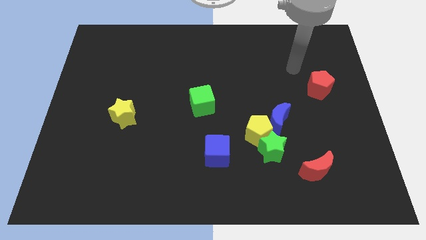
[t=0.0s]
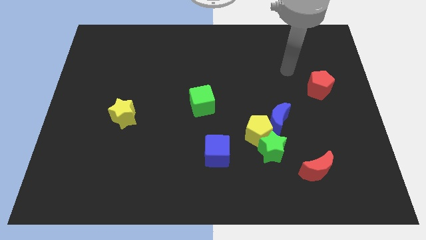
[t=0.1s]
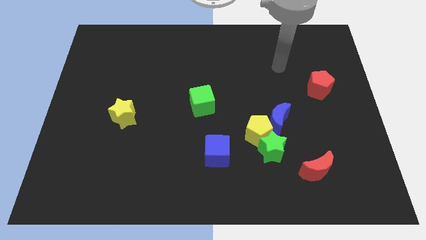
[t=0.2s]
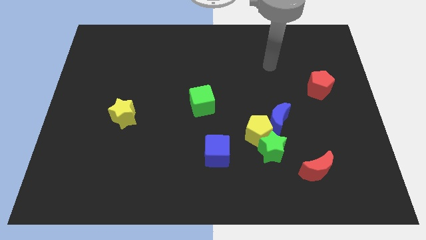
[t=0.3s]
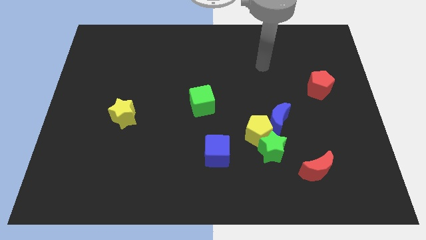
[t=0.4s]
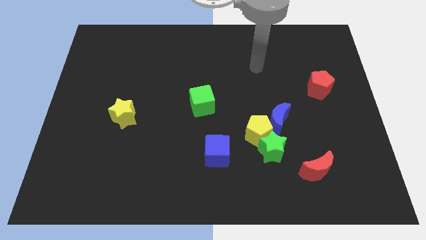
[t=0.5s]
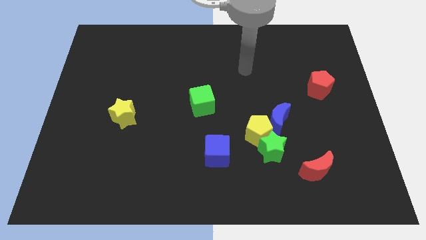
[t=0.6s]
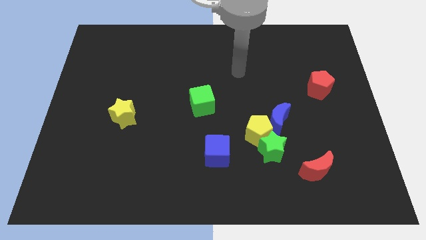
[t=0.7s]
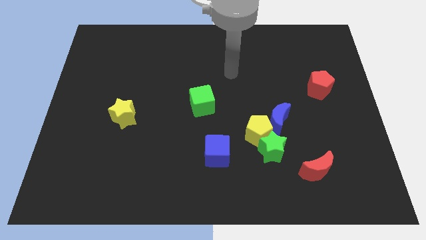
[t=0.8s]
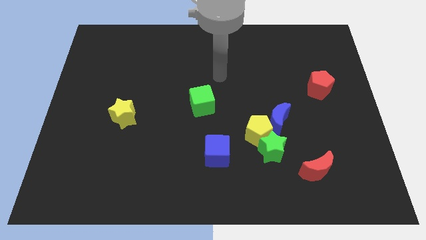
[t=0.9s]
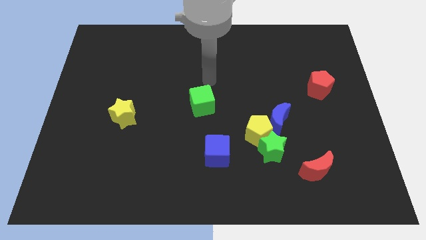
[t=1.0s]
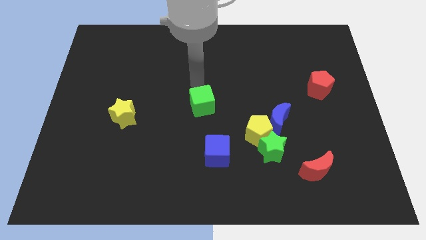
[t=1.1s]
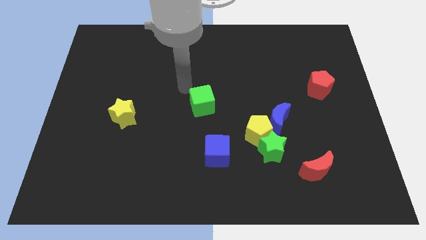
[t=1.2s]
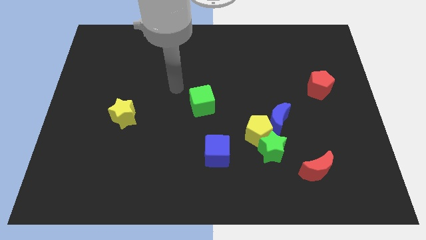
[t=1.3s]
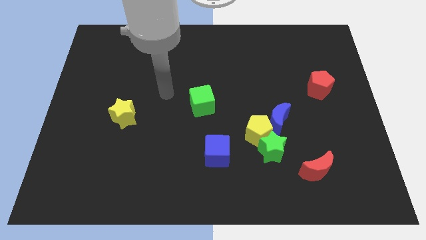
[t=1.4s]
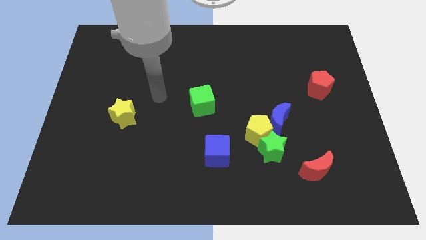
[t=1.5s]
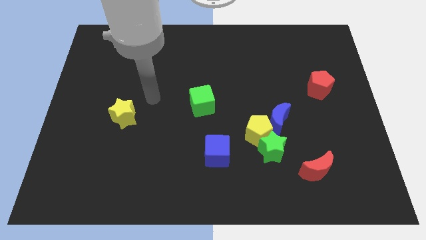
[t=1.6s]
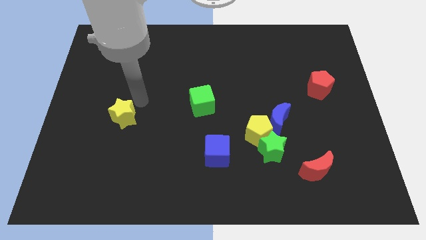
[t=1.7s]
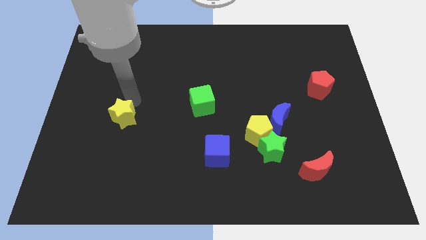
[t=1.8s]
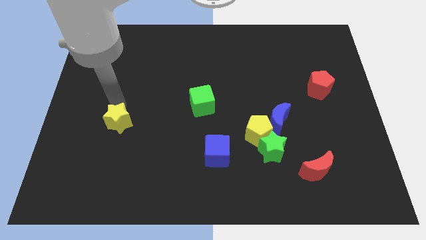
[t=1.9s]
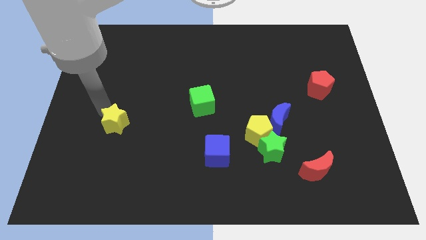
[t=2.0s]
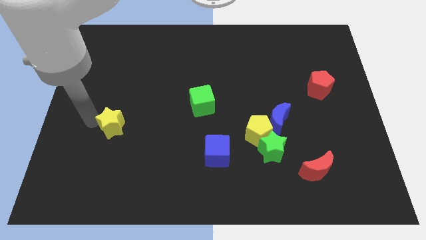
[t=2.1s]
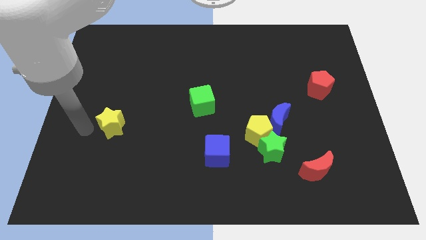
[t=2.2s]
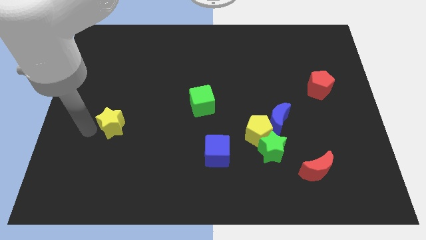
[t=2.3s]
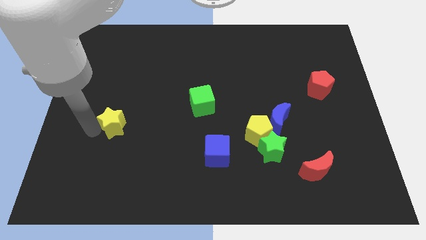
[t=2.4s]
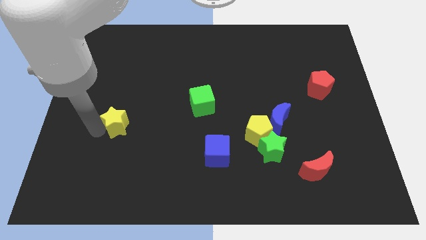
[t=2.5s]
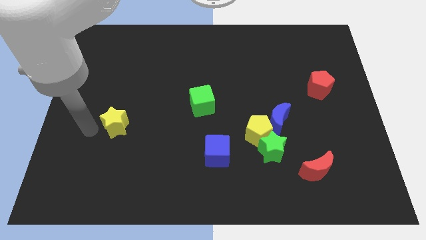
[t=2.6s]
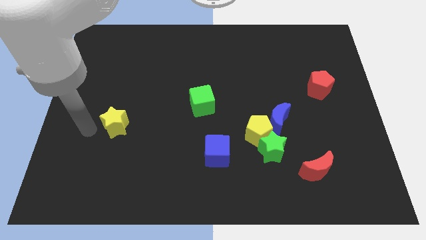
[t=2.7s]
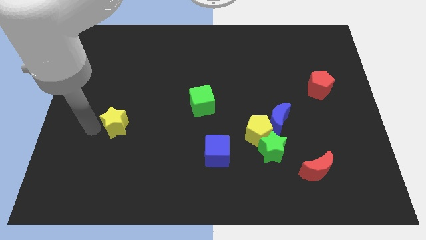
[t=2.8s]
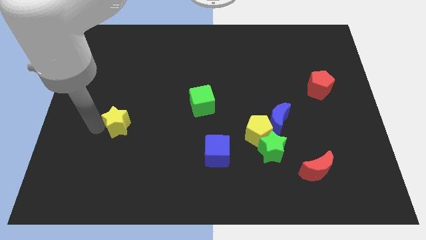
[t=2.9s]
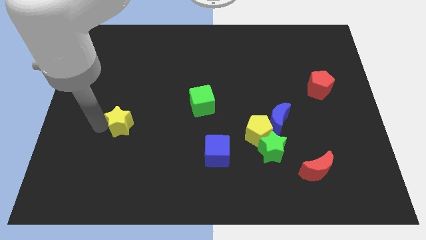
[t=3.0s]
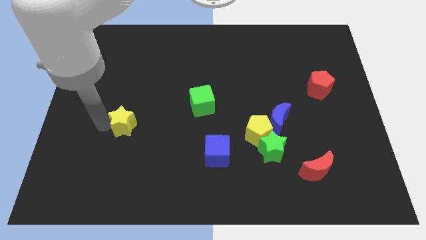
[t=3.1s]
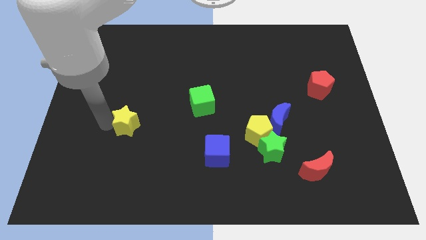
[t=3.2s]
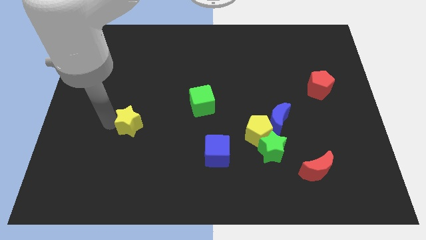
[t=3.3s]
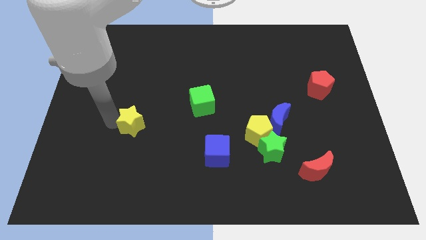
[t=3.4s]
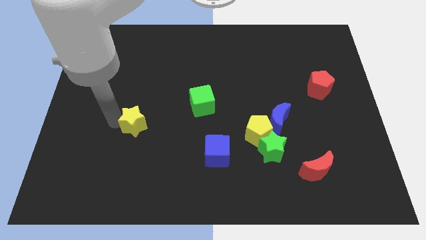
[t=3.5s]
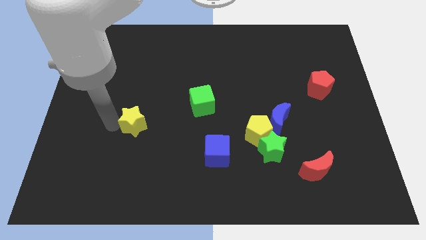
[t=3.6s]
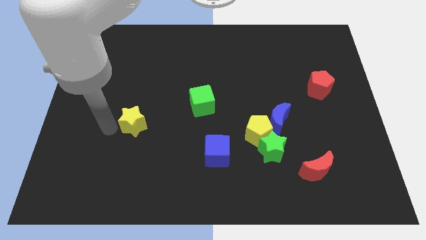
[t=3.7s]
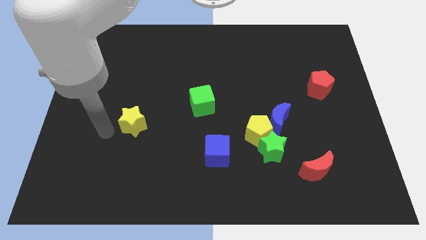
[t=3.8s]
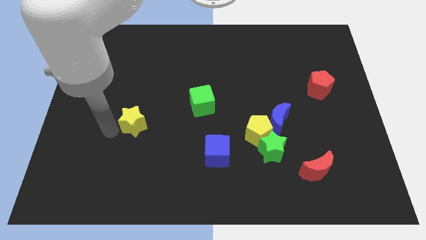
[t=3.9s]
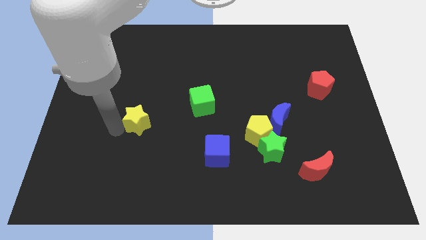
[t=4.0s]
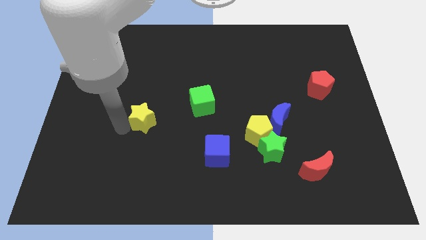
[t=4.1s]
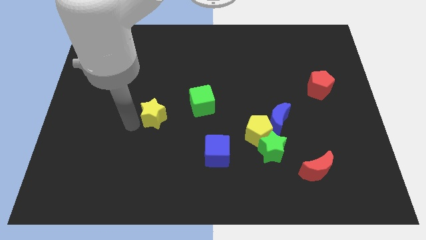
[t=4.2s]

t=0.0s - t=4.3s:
push the yellow star somewhat right

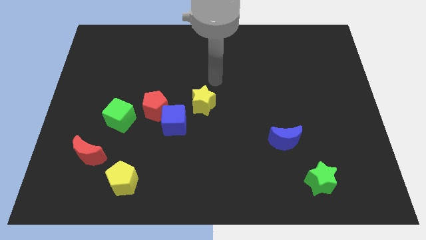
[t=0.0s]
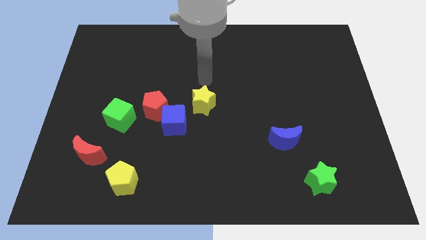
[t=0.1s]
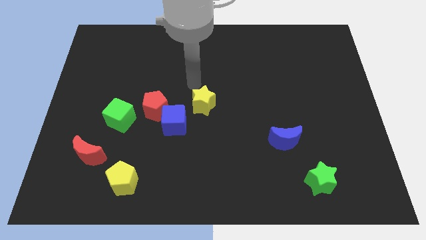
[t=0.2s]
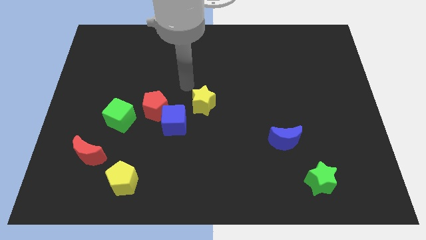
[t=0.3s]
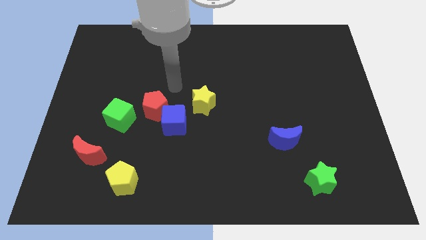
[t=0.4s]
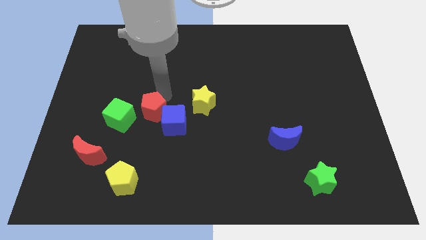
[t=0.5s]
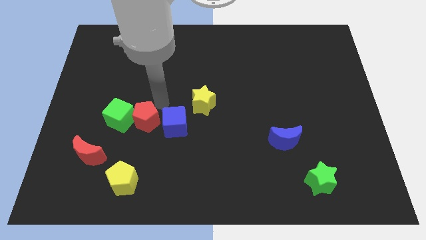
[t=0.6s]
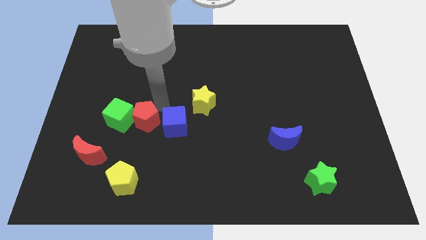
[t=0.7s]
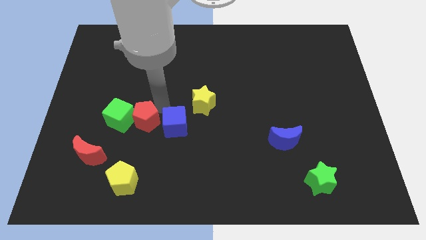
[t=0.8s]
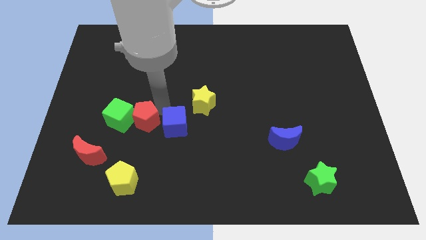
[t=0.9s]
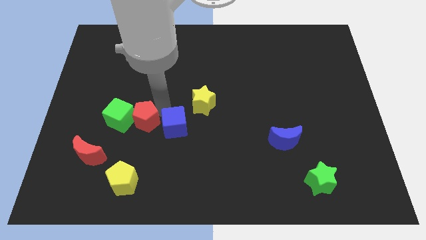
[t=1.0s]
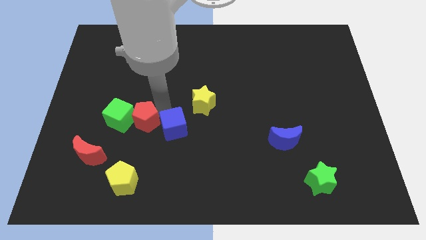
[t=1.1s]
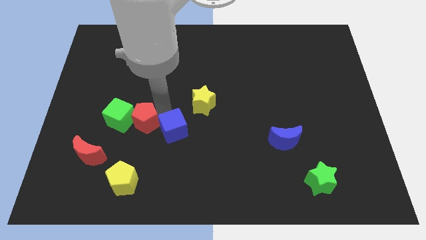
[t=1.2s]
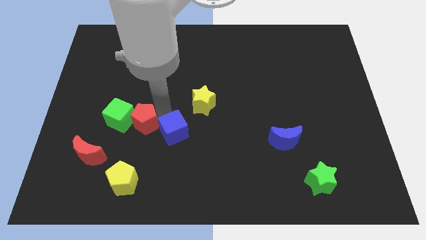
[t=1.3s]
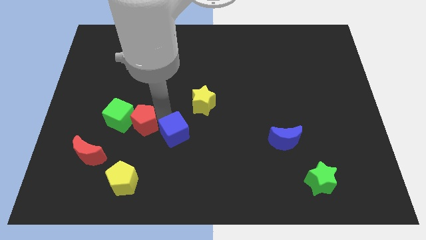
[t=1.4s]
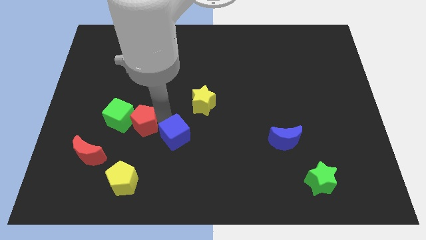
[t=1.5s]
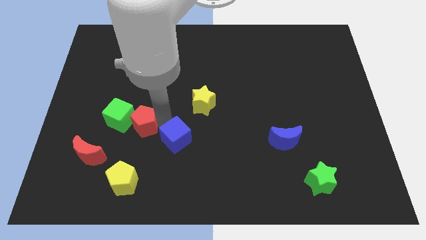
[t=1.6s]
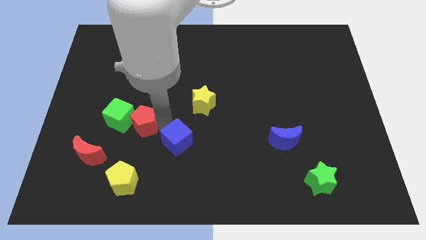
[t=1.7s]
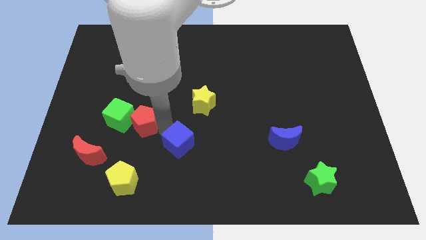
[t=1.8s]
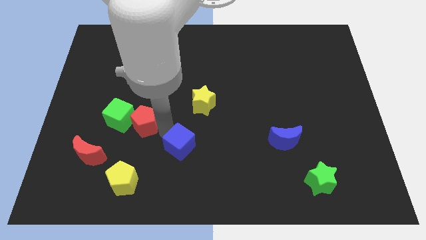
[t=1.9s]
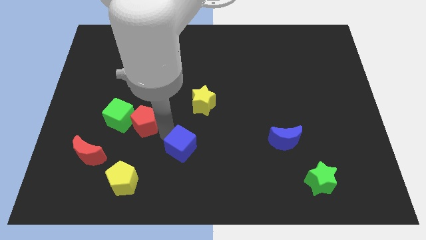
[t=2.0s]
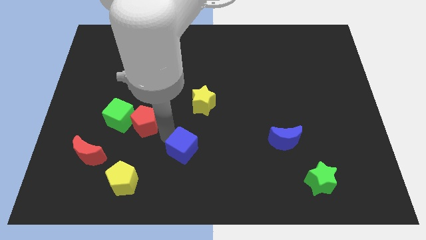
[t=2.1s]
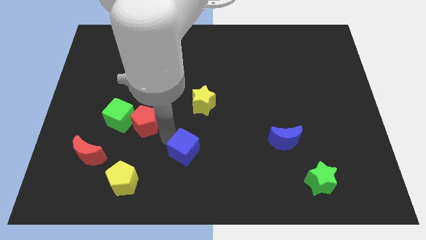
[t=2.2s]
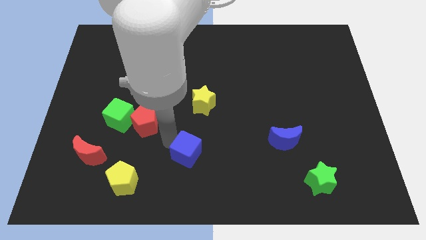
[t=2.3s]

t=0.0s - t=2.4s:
move the blue cube down and then right a bit

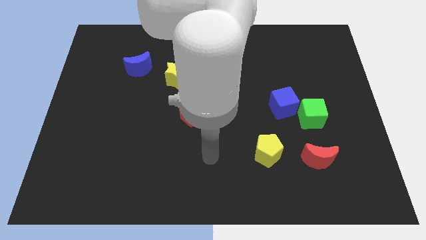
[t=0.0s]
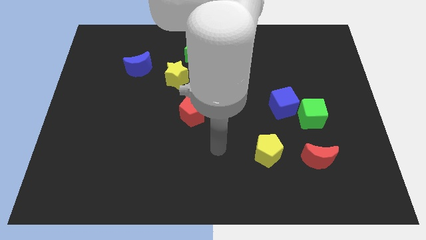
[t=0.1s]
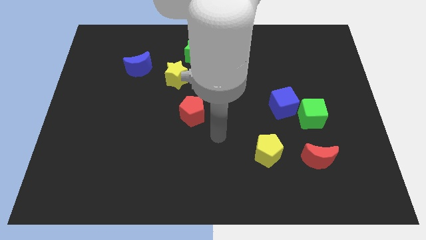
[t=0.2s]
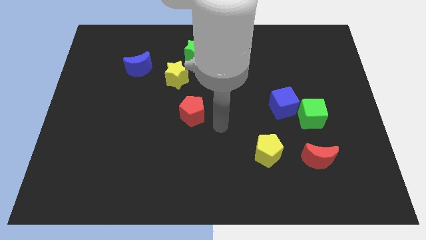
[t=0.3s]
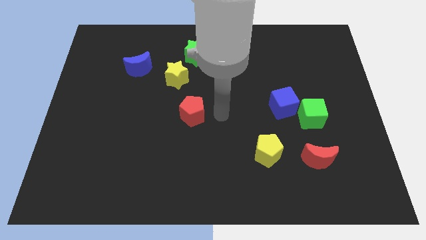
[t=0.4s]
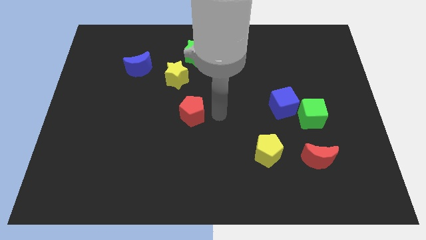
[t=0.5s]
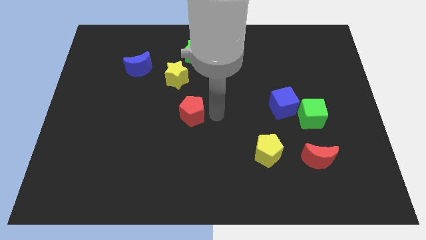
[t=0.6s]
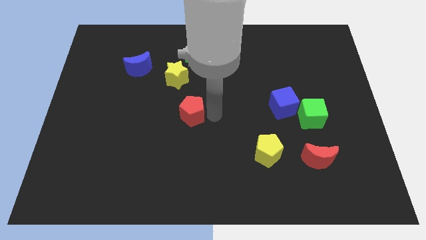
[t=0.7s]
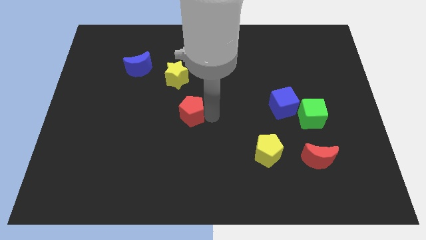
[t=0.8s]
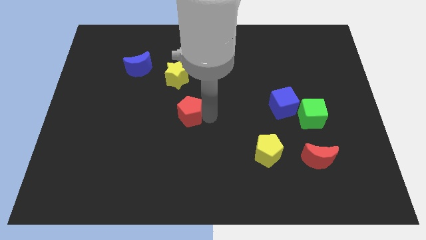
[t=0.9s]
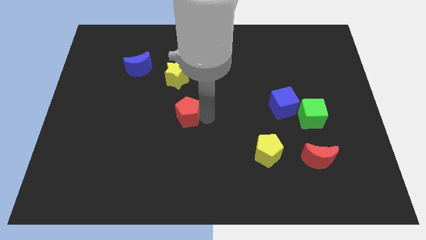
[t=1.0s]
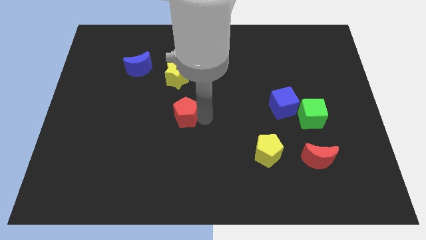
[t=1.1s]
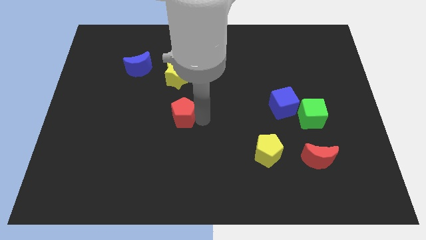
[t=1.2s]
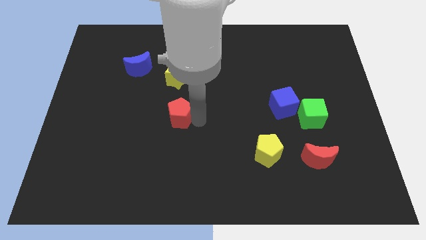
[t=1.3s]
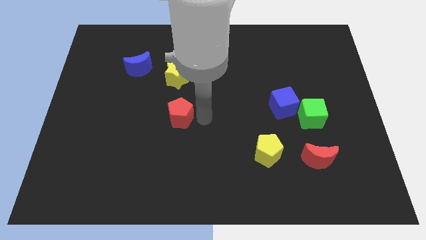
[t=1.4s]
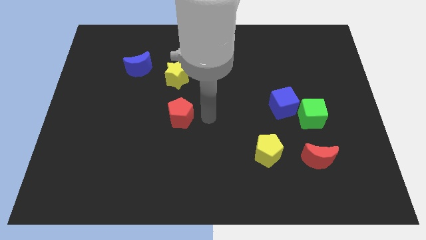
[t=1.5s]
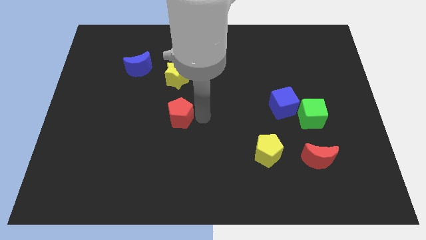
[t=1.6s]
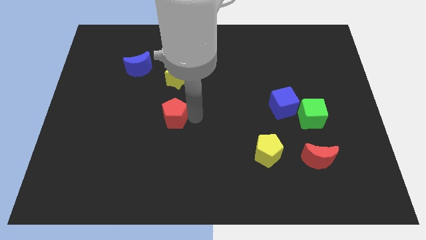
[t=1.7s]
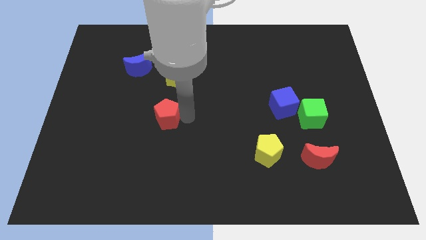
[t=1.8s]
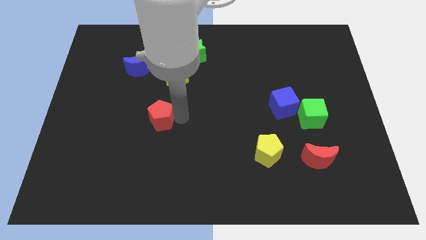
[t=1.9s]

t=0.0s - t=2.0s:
slightly push the red pentagon left
